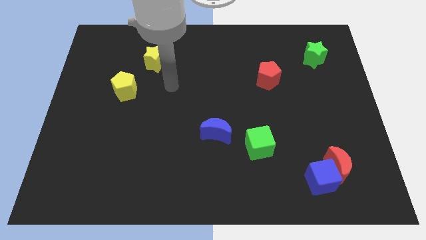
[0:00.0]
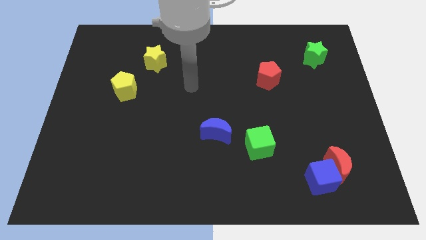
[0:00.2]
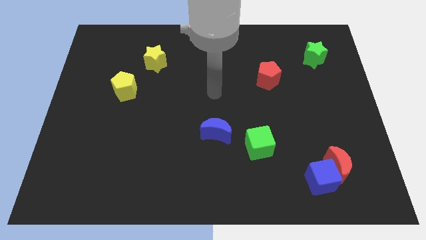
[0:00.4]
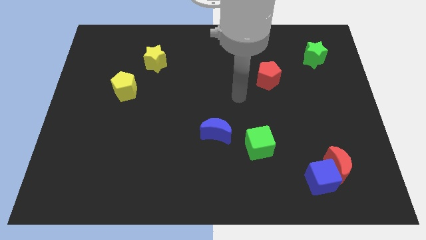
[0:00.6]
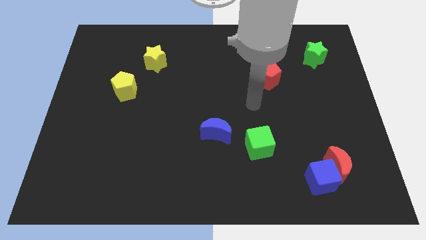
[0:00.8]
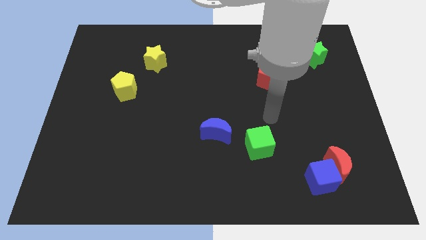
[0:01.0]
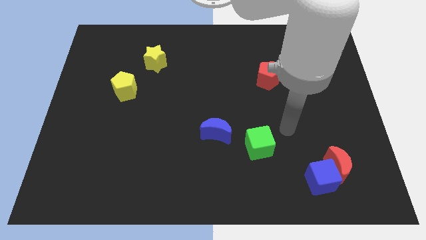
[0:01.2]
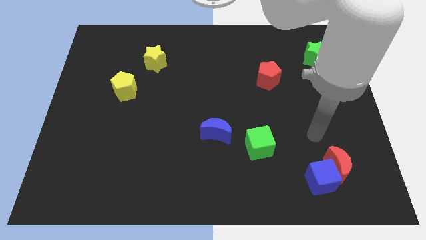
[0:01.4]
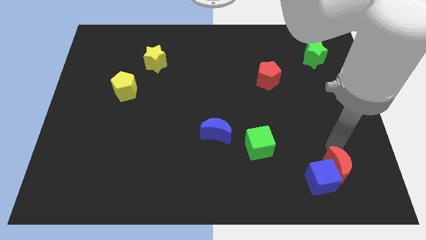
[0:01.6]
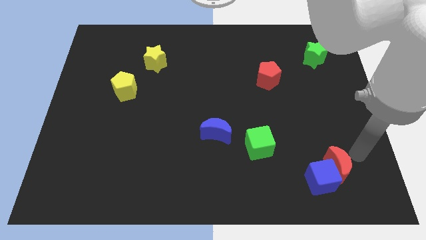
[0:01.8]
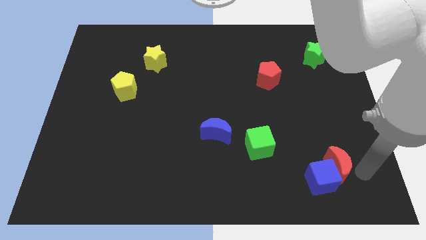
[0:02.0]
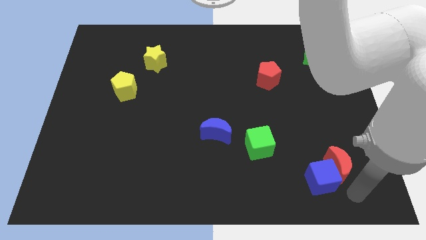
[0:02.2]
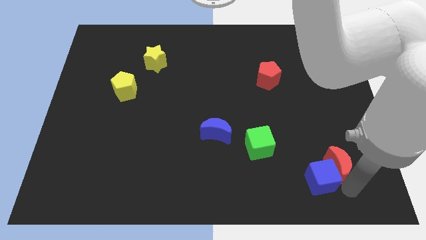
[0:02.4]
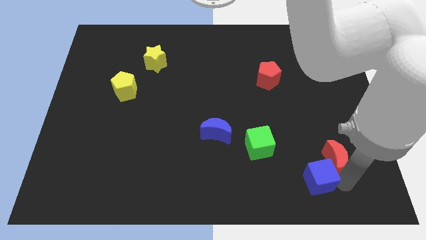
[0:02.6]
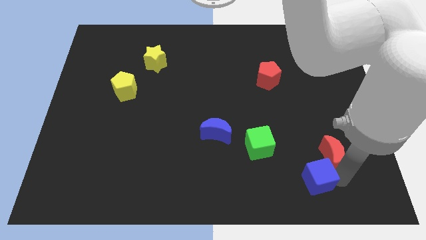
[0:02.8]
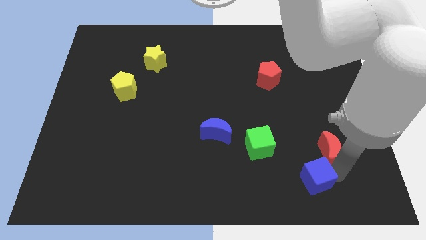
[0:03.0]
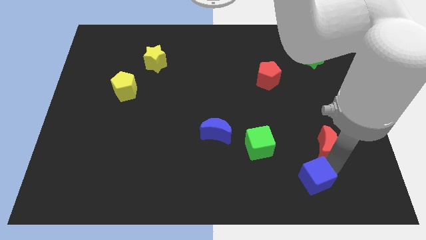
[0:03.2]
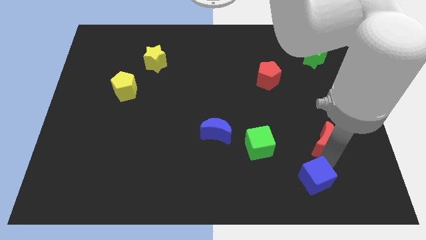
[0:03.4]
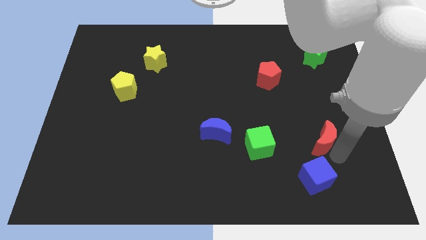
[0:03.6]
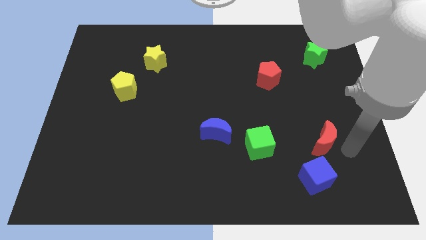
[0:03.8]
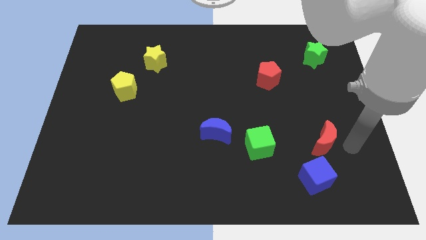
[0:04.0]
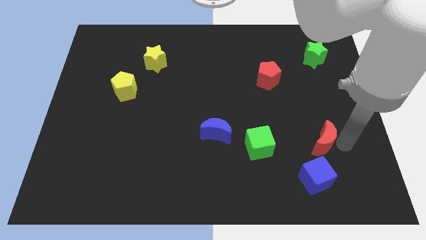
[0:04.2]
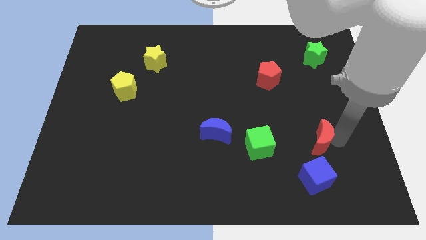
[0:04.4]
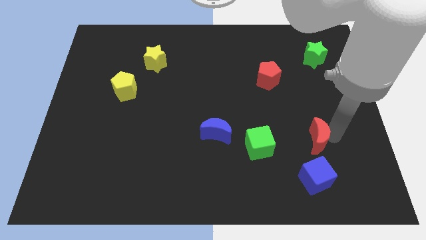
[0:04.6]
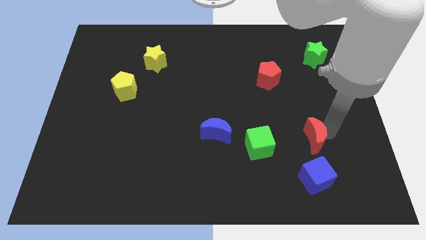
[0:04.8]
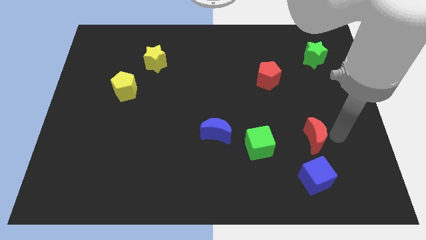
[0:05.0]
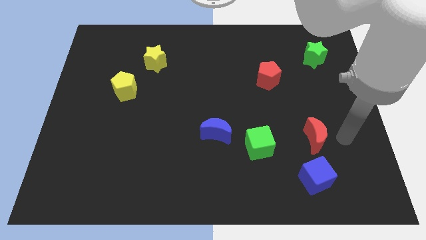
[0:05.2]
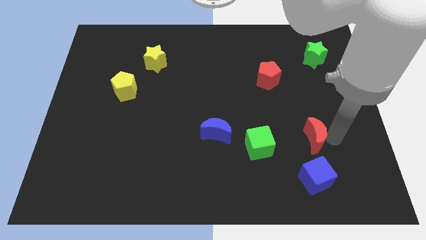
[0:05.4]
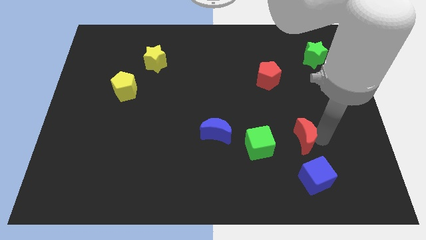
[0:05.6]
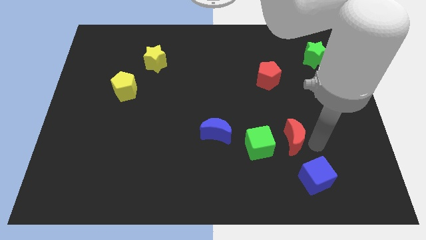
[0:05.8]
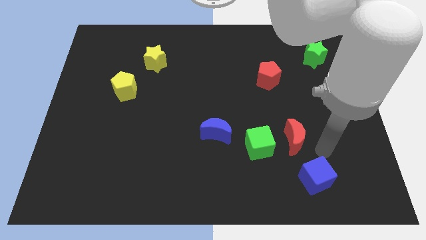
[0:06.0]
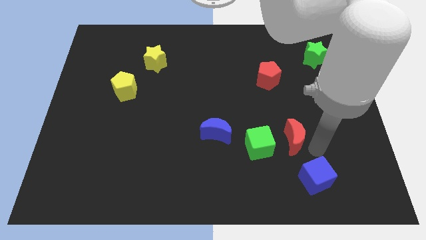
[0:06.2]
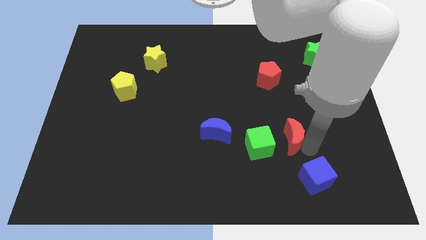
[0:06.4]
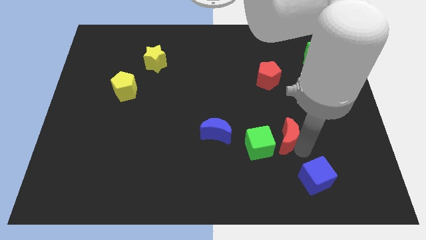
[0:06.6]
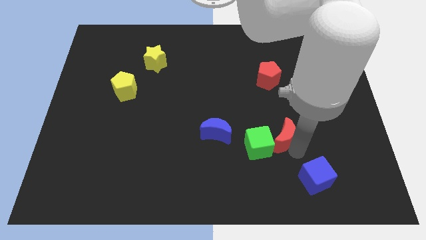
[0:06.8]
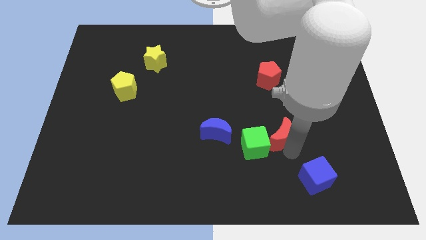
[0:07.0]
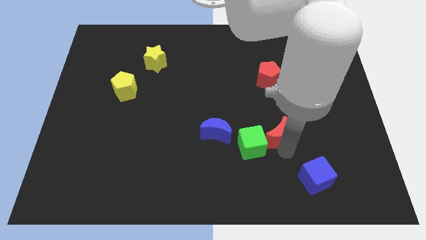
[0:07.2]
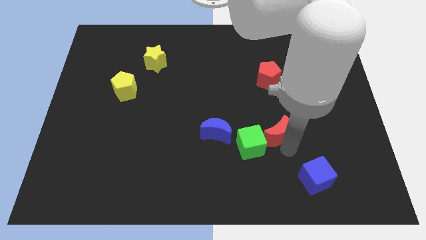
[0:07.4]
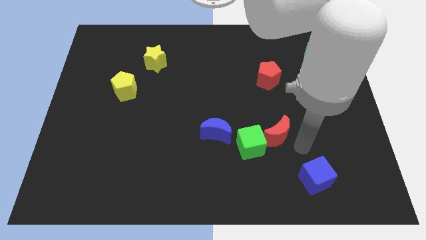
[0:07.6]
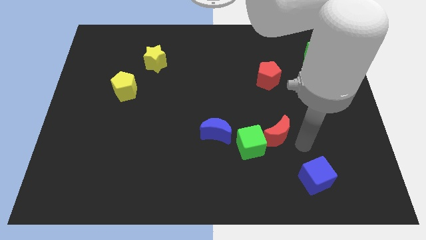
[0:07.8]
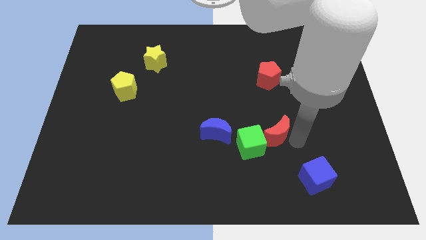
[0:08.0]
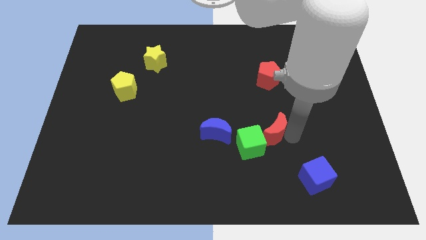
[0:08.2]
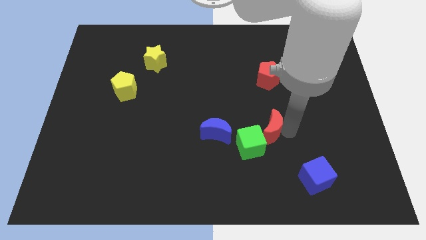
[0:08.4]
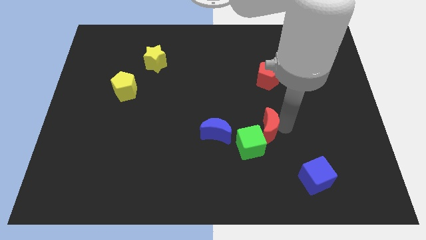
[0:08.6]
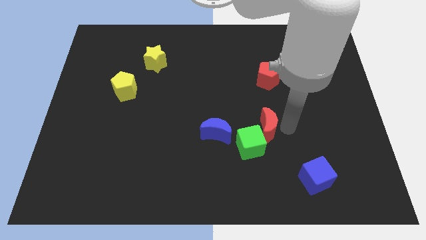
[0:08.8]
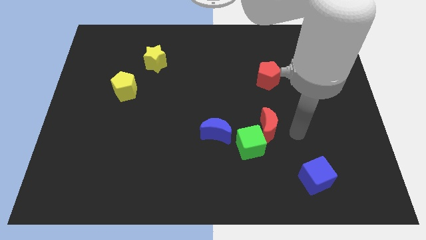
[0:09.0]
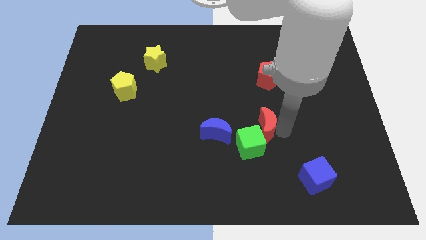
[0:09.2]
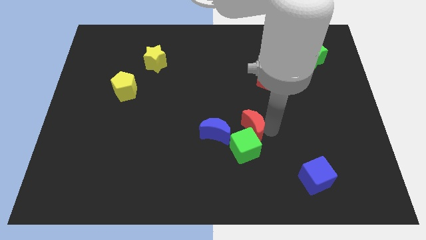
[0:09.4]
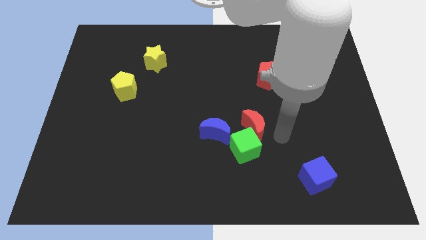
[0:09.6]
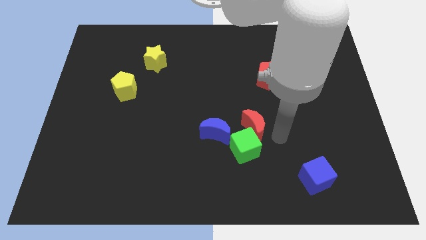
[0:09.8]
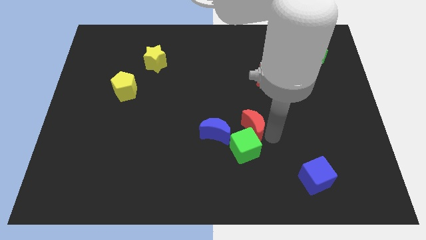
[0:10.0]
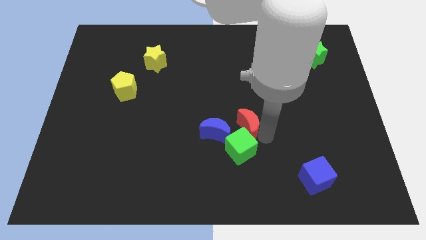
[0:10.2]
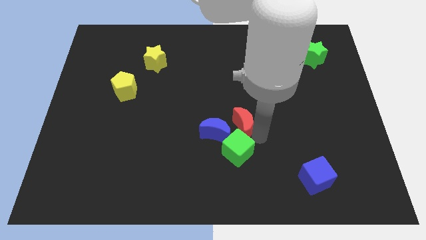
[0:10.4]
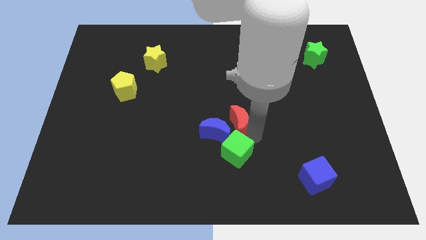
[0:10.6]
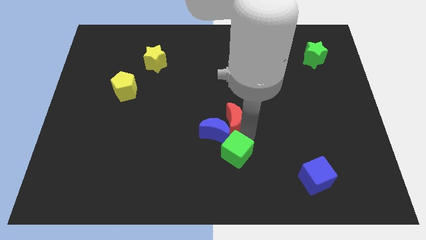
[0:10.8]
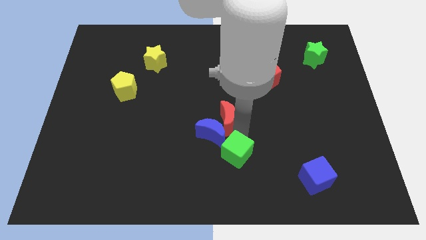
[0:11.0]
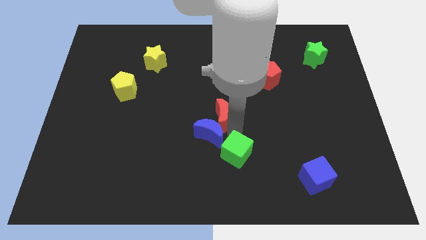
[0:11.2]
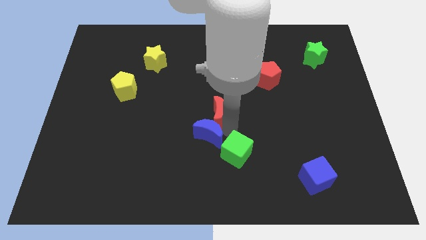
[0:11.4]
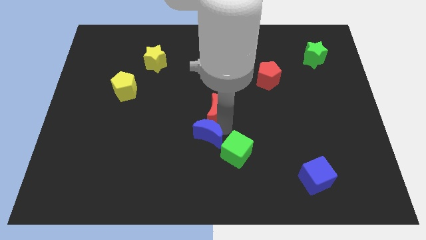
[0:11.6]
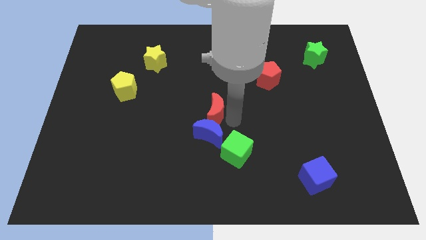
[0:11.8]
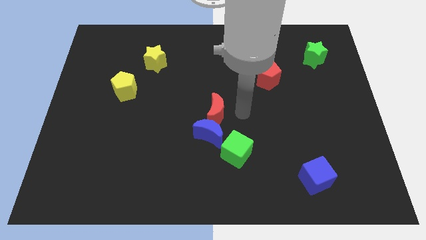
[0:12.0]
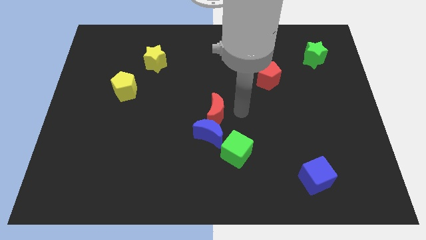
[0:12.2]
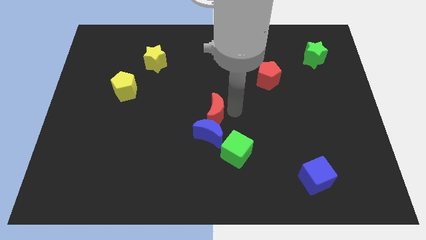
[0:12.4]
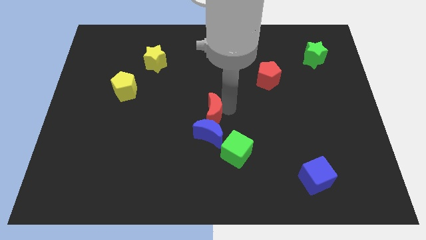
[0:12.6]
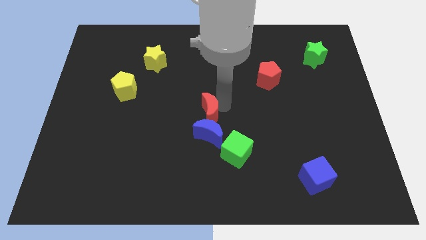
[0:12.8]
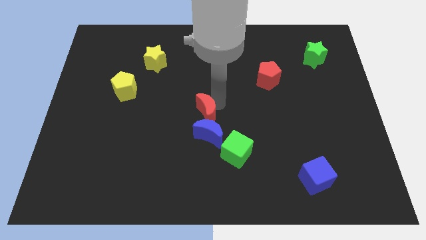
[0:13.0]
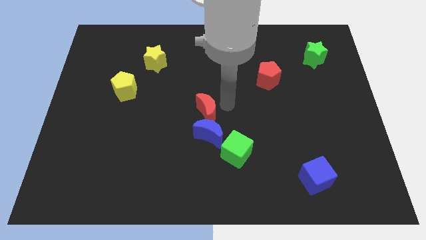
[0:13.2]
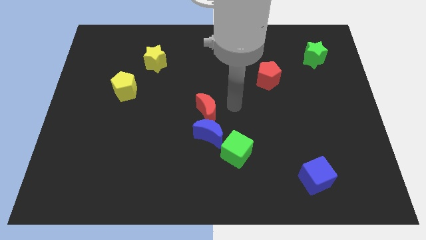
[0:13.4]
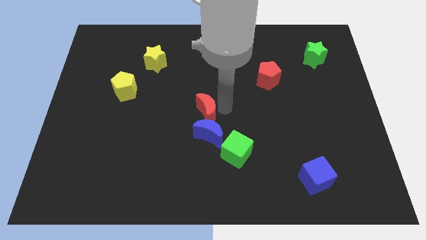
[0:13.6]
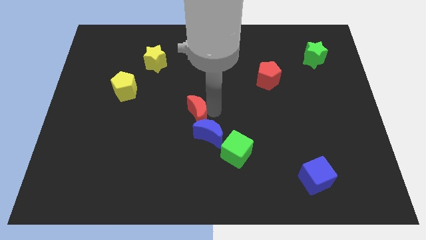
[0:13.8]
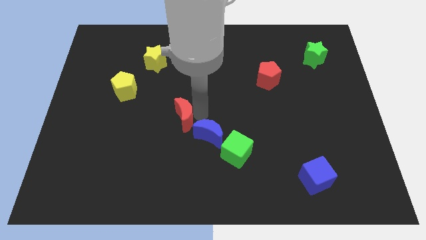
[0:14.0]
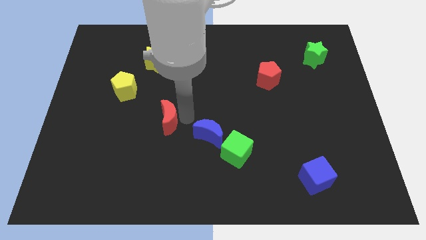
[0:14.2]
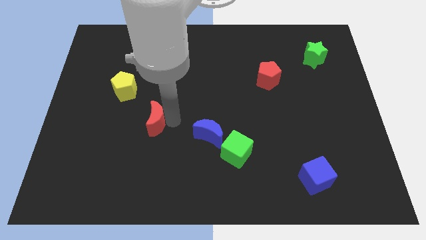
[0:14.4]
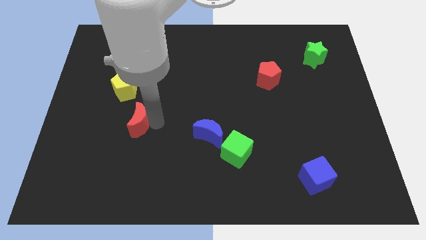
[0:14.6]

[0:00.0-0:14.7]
move the red moon to the bottom side of the yellow pentagon

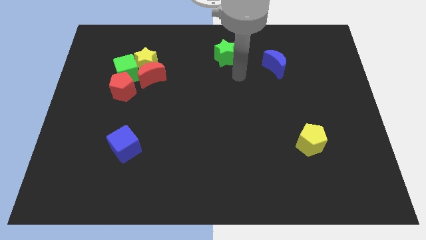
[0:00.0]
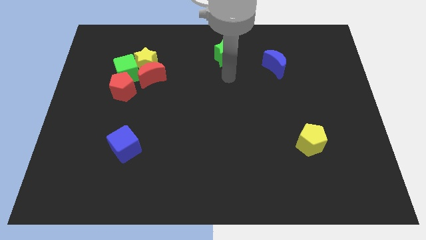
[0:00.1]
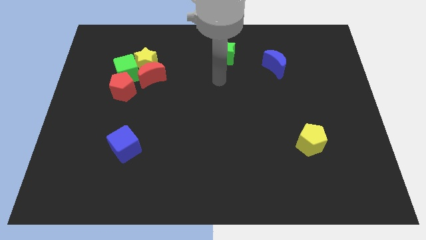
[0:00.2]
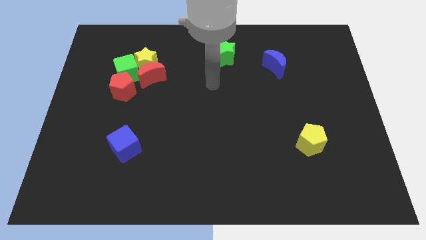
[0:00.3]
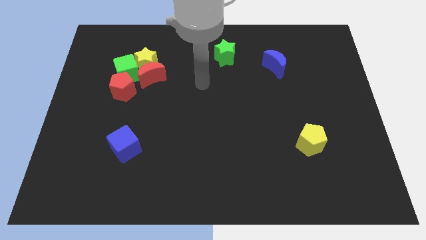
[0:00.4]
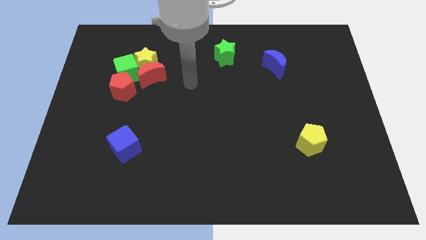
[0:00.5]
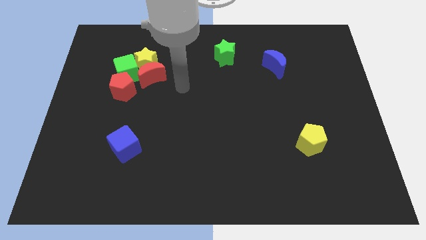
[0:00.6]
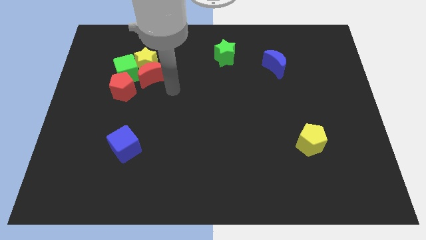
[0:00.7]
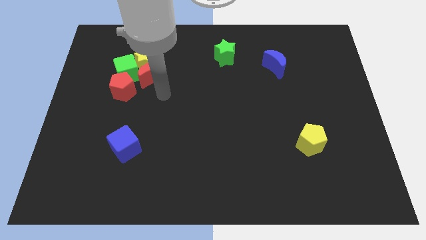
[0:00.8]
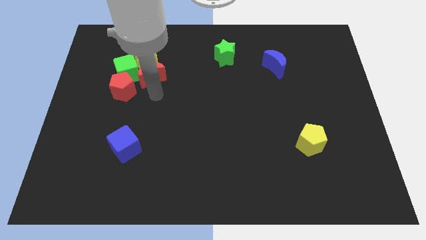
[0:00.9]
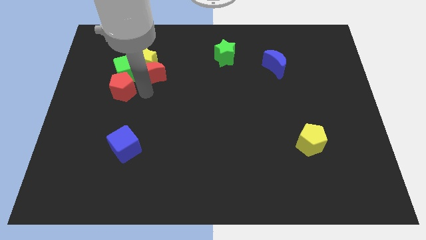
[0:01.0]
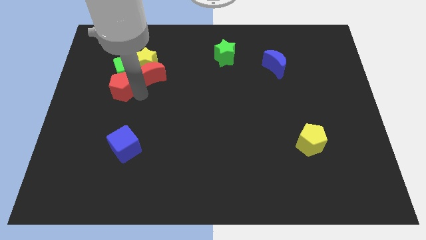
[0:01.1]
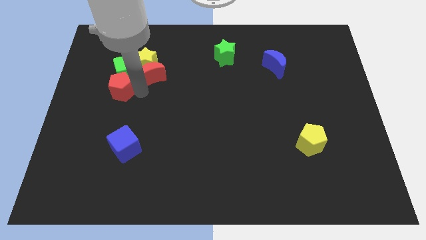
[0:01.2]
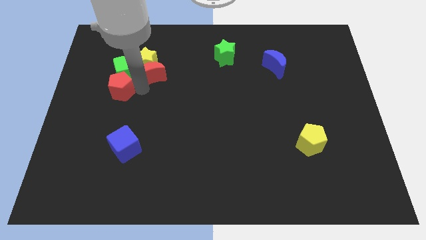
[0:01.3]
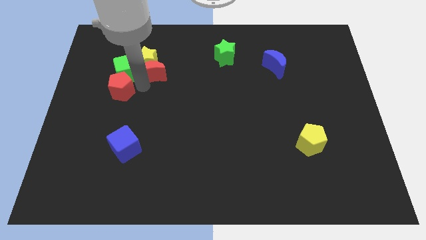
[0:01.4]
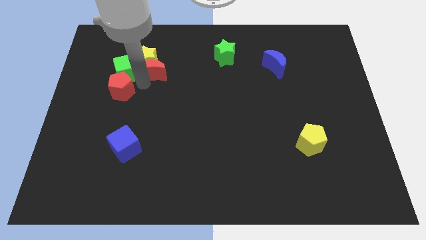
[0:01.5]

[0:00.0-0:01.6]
slide the red moon diagonally up and to the right of the green cube
